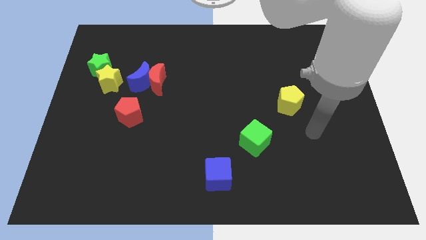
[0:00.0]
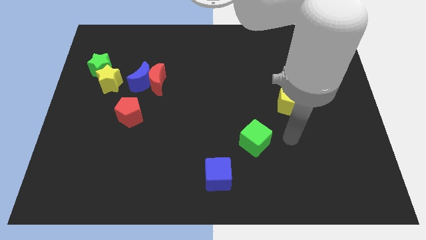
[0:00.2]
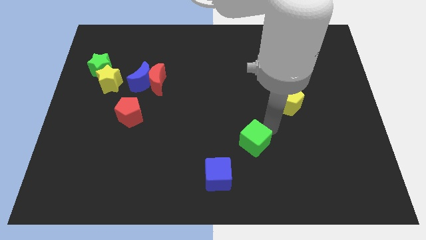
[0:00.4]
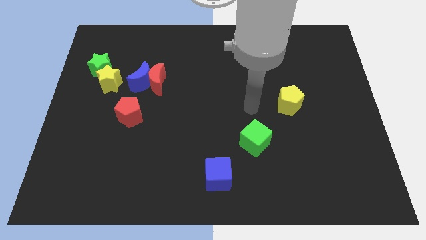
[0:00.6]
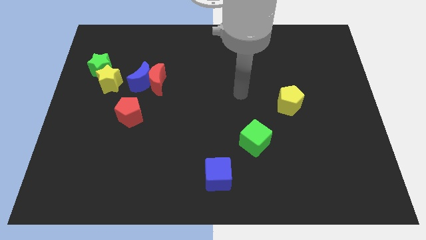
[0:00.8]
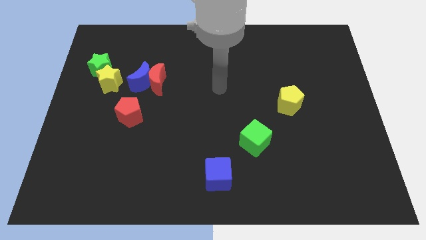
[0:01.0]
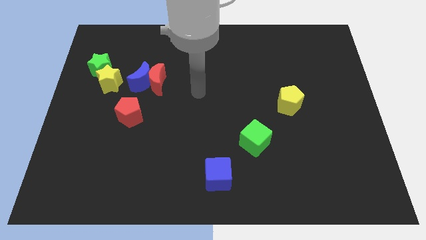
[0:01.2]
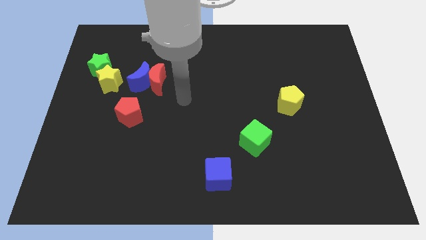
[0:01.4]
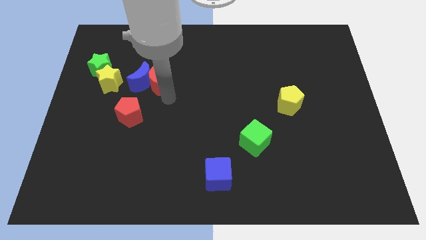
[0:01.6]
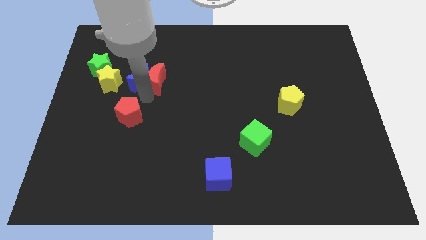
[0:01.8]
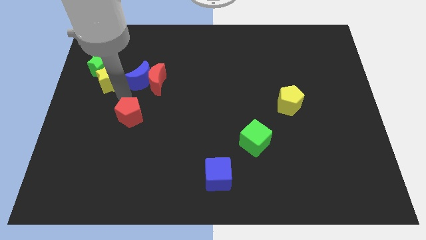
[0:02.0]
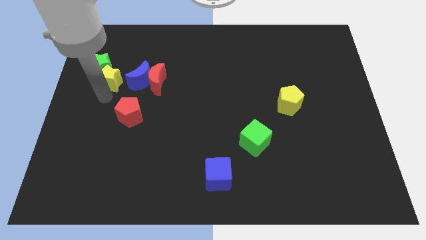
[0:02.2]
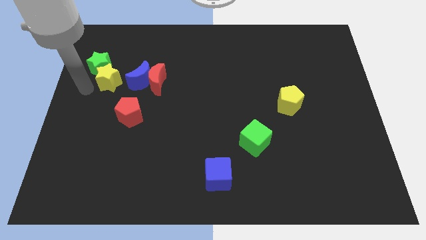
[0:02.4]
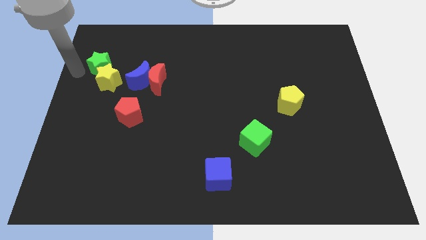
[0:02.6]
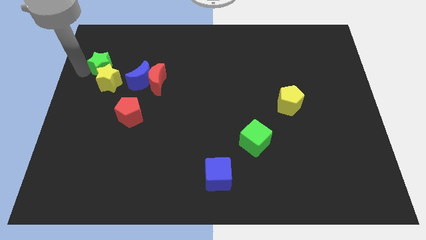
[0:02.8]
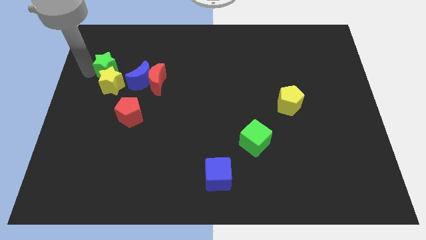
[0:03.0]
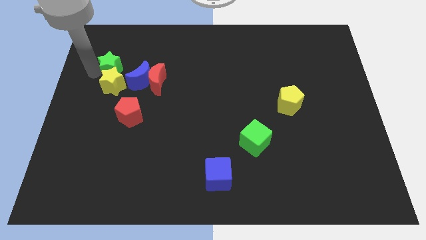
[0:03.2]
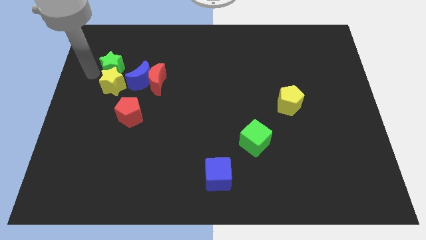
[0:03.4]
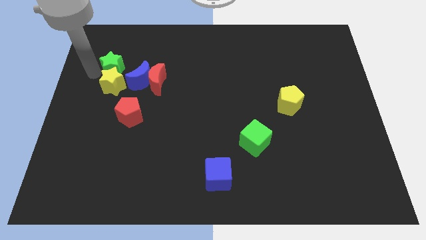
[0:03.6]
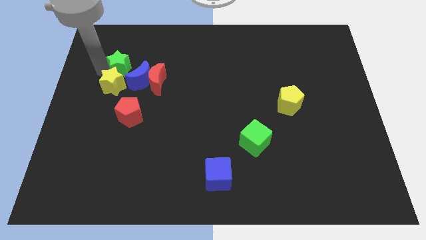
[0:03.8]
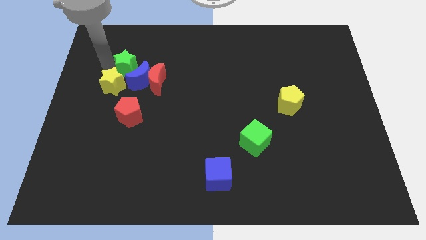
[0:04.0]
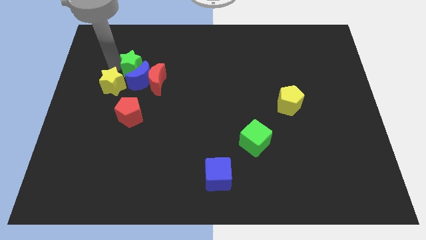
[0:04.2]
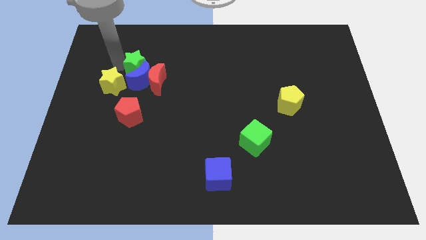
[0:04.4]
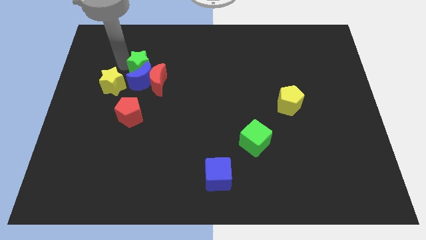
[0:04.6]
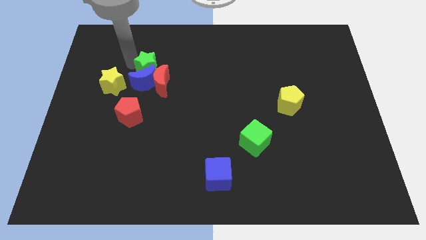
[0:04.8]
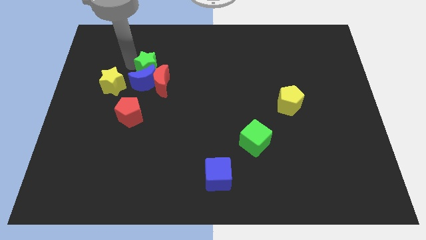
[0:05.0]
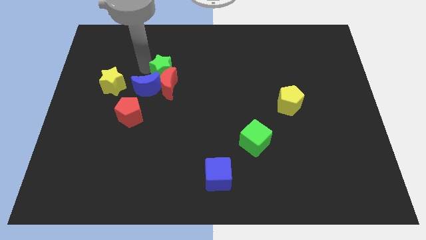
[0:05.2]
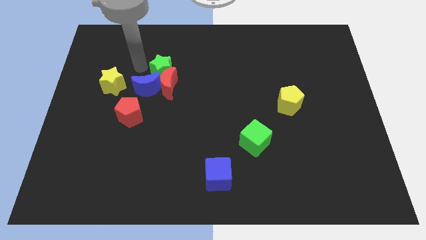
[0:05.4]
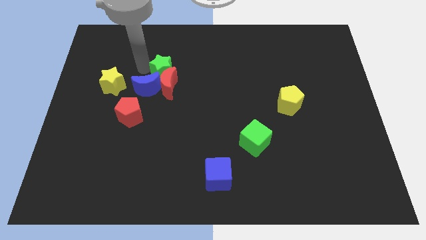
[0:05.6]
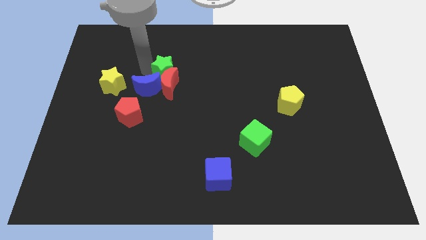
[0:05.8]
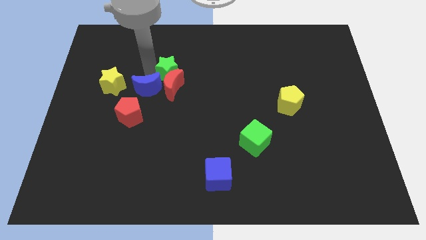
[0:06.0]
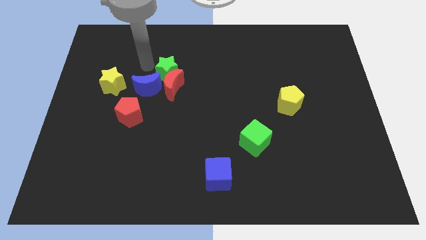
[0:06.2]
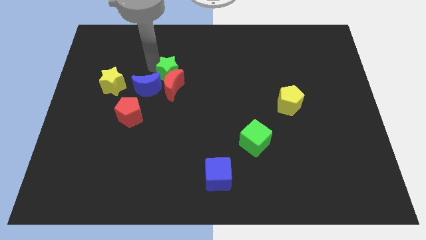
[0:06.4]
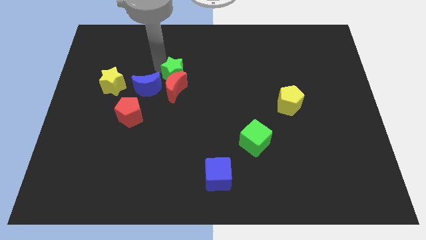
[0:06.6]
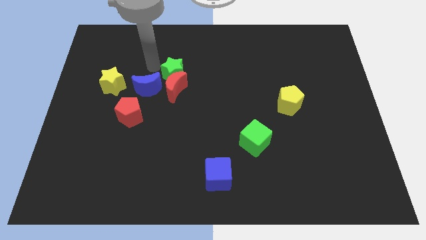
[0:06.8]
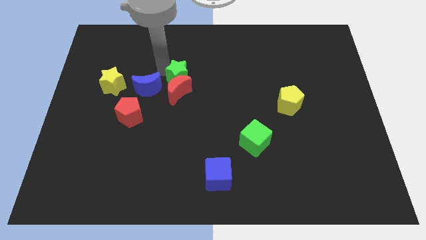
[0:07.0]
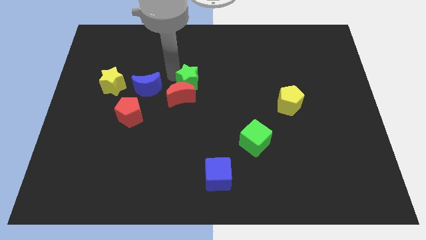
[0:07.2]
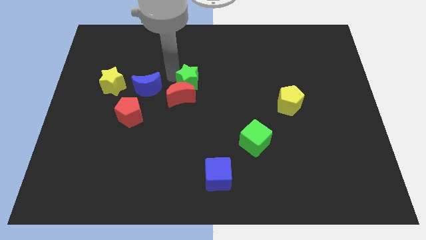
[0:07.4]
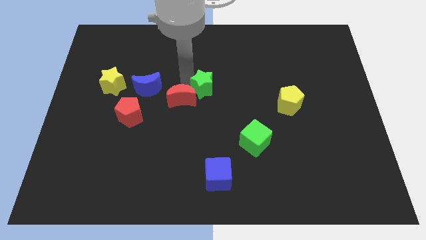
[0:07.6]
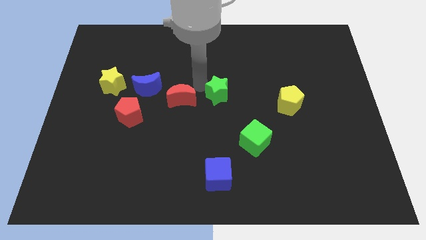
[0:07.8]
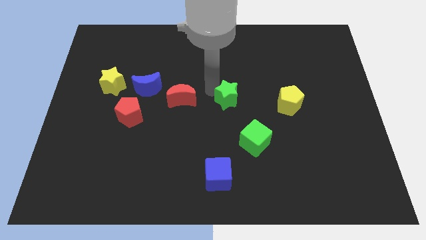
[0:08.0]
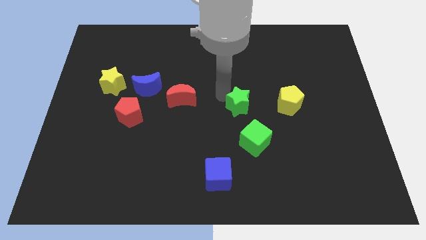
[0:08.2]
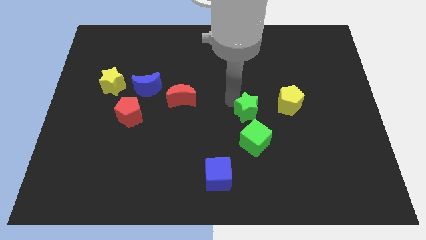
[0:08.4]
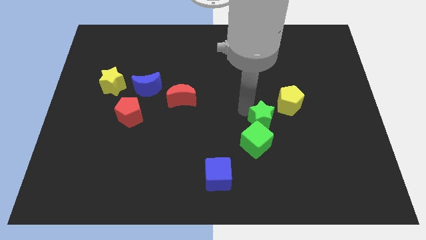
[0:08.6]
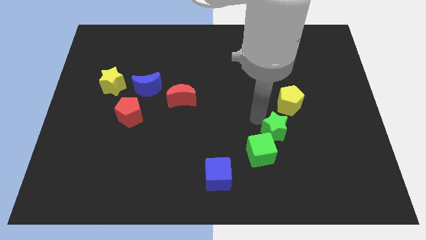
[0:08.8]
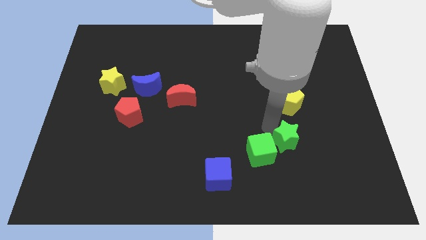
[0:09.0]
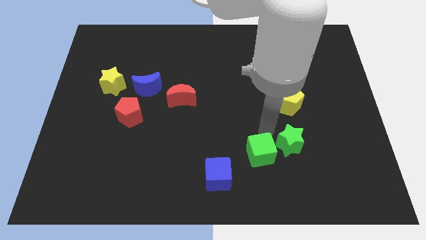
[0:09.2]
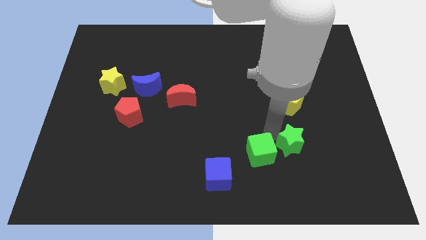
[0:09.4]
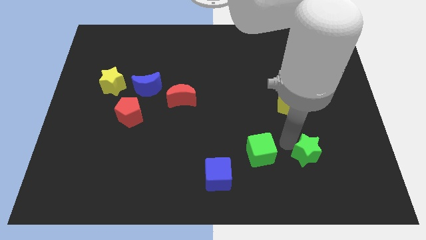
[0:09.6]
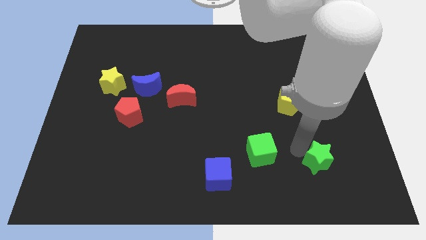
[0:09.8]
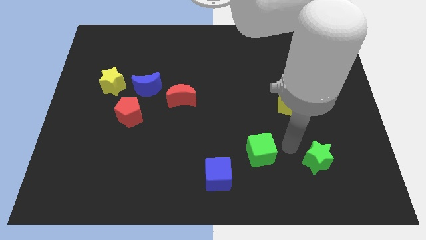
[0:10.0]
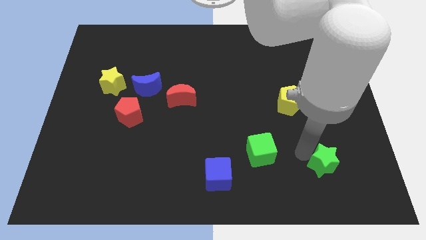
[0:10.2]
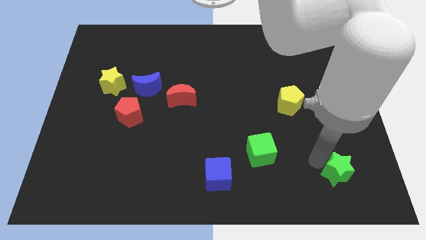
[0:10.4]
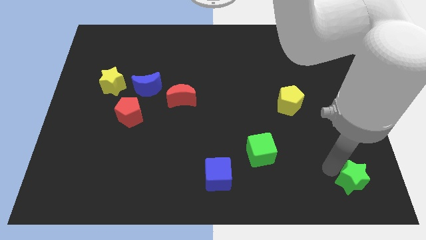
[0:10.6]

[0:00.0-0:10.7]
slide the green star to the bottom right of the board

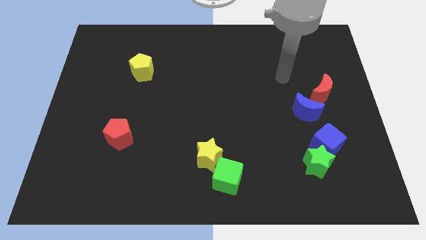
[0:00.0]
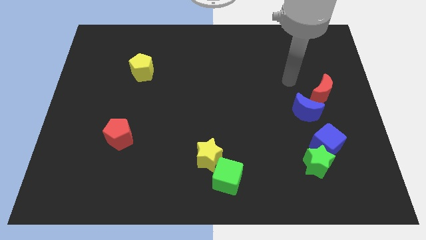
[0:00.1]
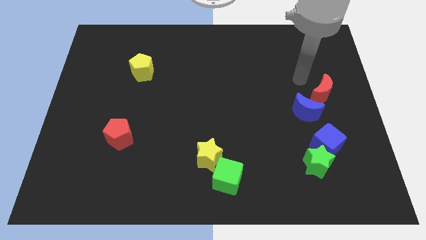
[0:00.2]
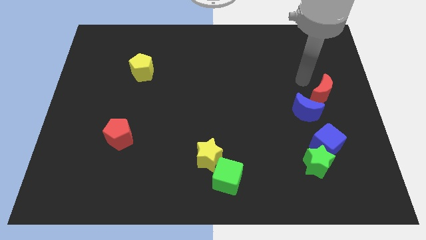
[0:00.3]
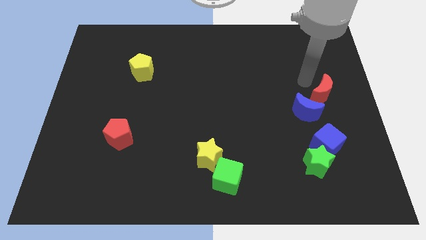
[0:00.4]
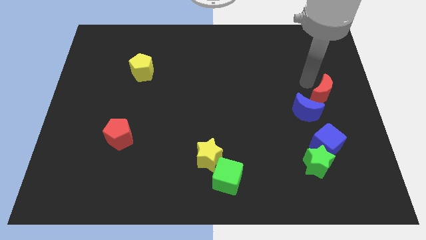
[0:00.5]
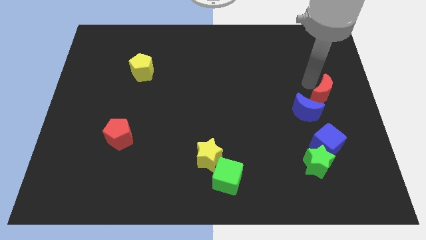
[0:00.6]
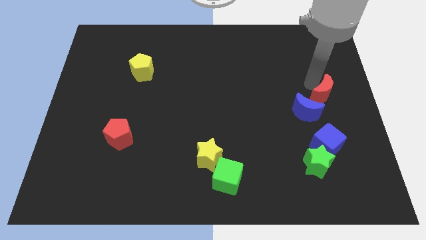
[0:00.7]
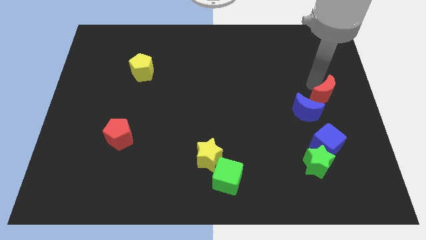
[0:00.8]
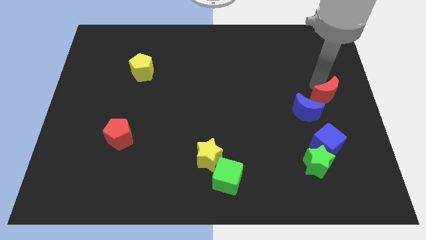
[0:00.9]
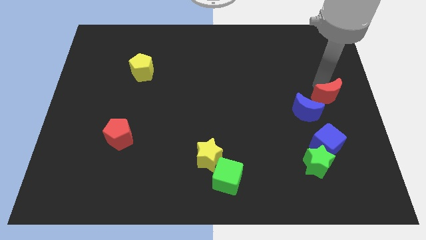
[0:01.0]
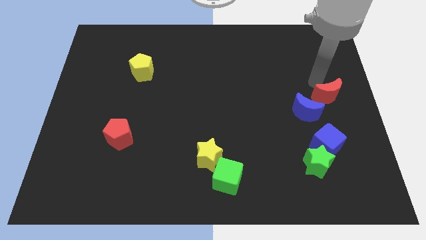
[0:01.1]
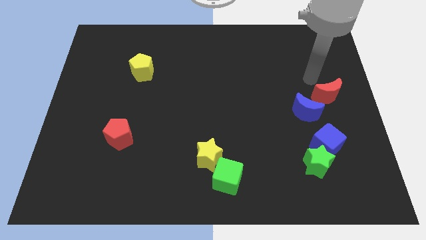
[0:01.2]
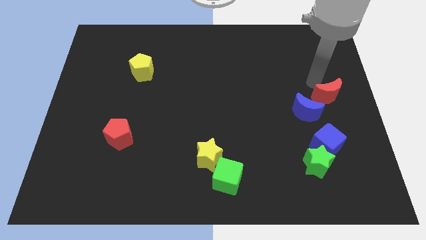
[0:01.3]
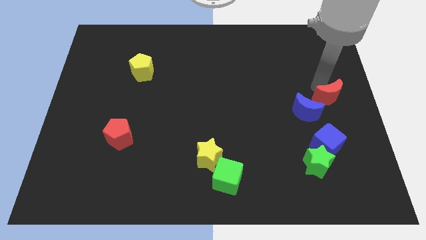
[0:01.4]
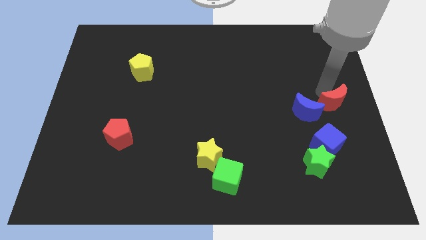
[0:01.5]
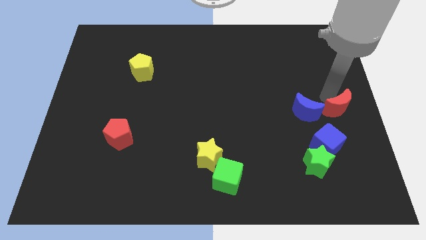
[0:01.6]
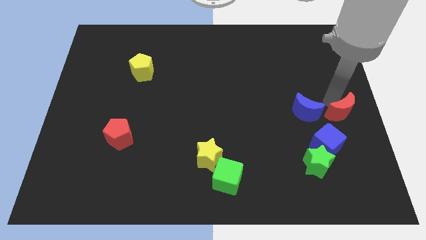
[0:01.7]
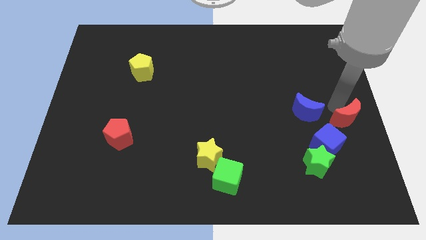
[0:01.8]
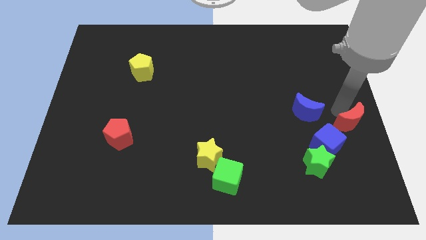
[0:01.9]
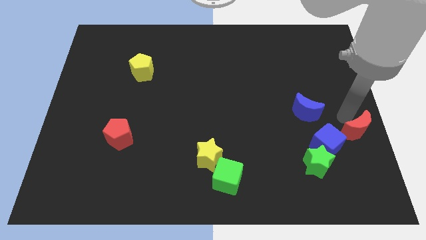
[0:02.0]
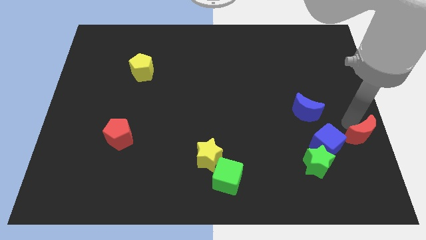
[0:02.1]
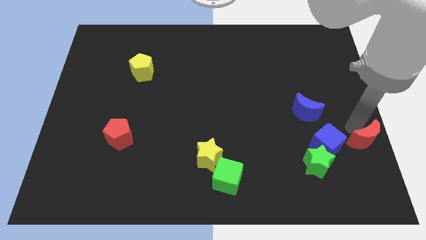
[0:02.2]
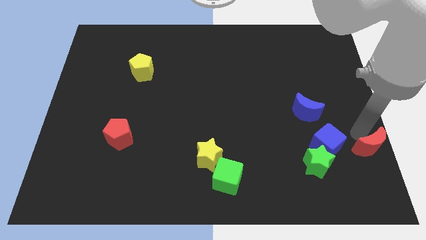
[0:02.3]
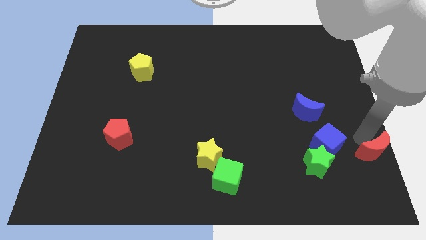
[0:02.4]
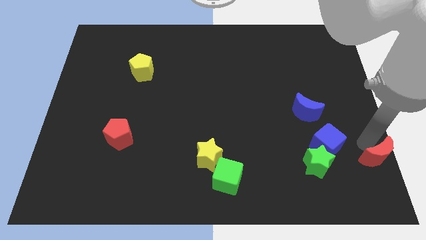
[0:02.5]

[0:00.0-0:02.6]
move the red moon to the bottom right corner
